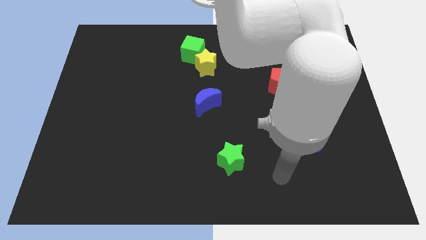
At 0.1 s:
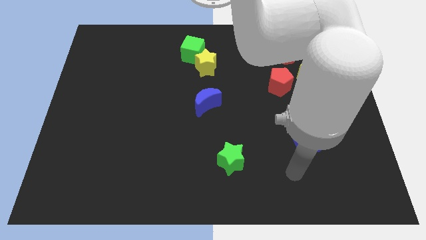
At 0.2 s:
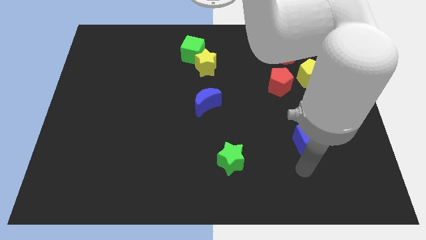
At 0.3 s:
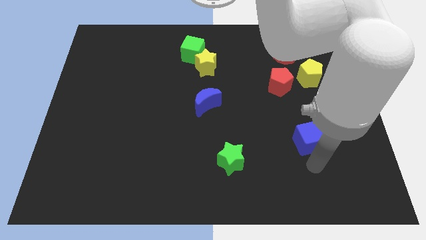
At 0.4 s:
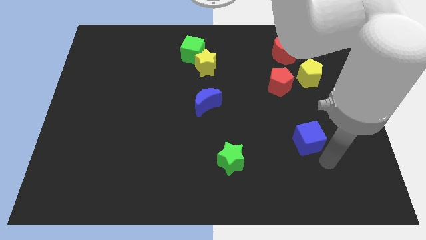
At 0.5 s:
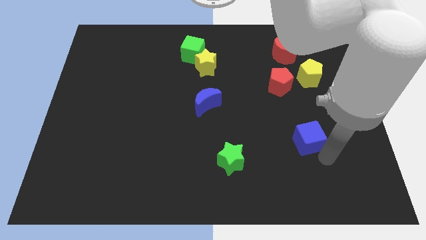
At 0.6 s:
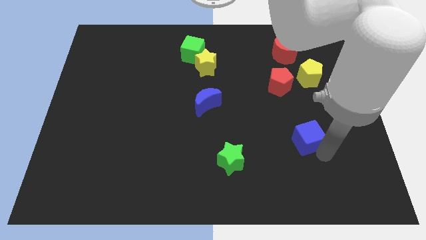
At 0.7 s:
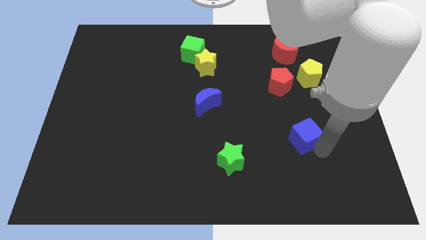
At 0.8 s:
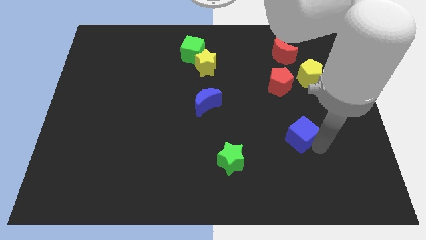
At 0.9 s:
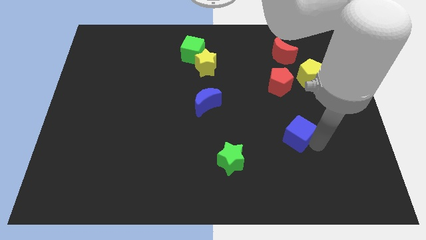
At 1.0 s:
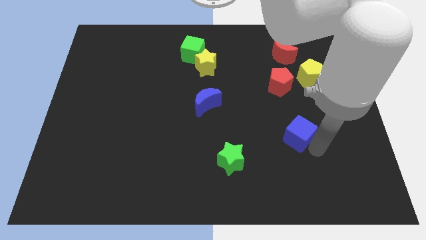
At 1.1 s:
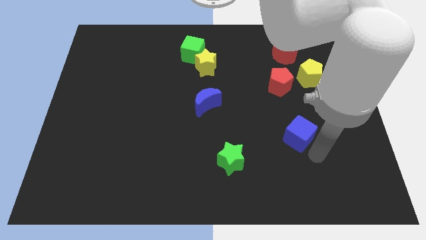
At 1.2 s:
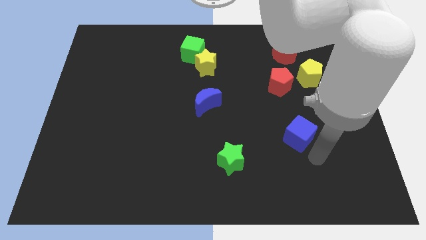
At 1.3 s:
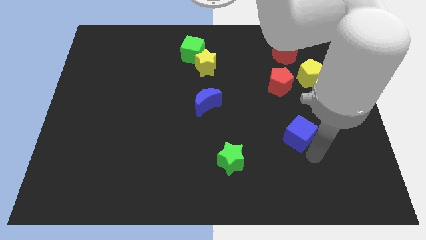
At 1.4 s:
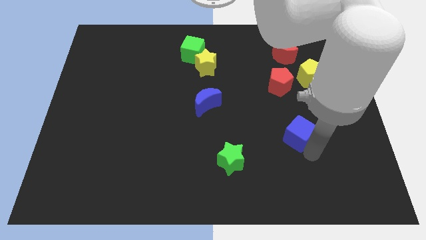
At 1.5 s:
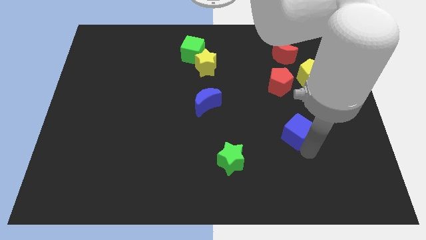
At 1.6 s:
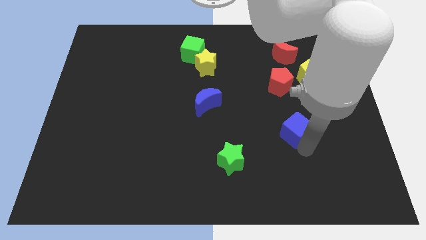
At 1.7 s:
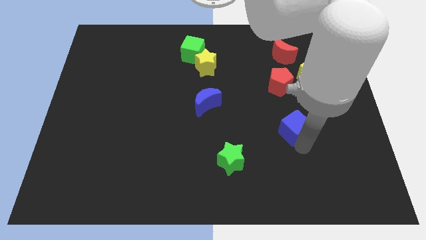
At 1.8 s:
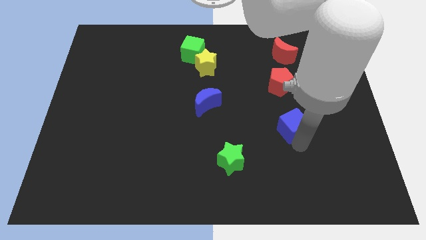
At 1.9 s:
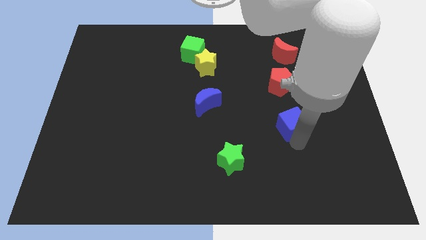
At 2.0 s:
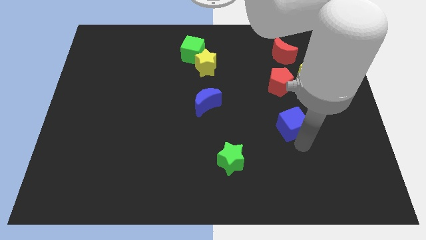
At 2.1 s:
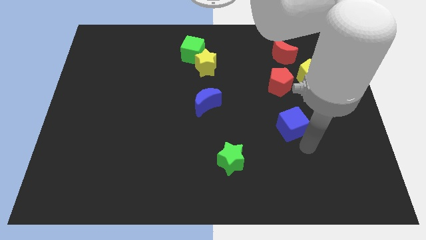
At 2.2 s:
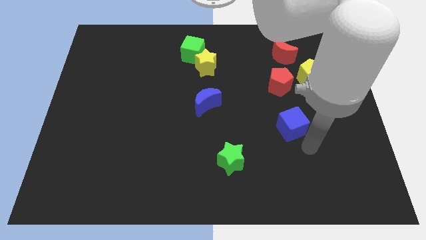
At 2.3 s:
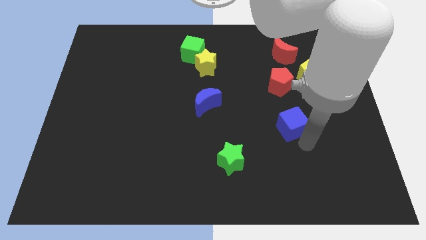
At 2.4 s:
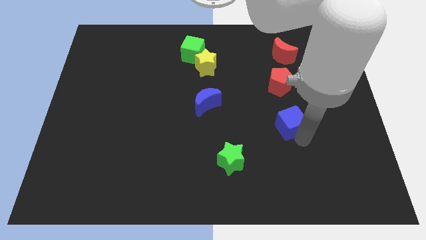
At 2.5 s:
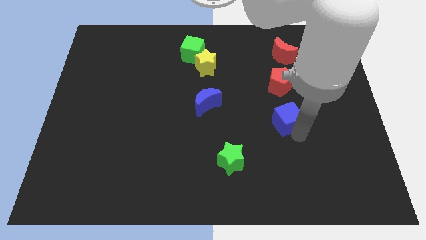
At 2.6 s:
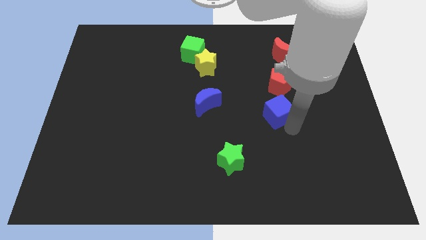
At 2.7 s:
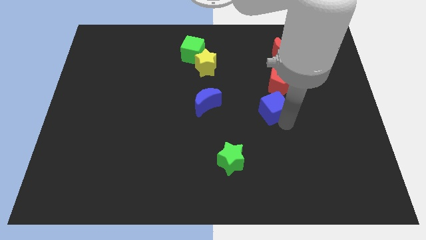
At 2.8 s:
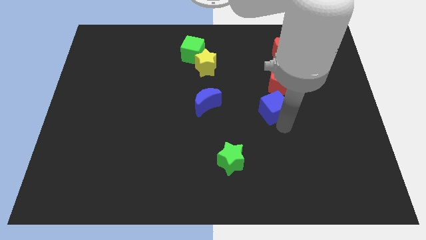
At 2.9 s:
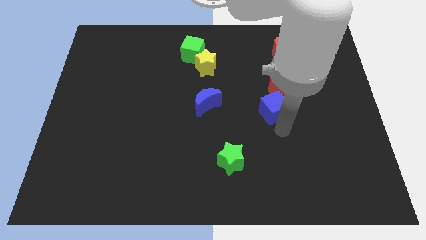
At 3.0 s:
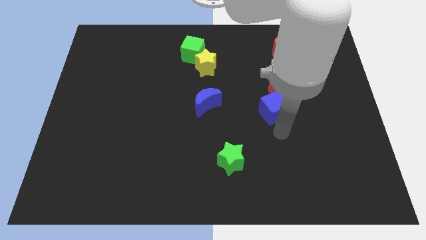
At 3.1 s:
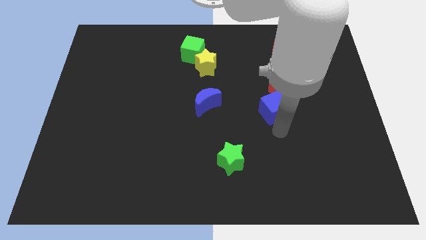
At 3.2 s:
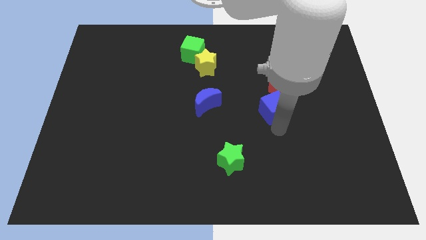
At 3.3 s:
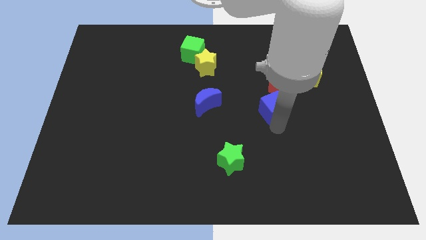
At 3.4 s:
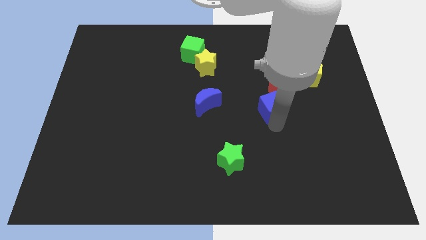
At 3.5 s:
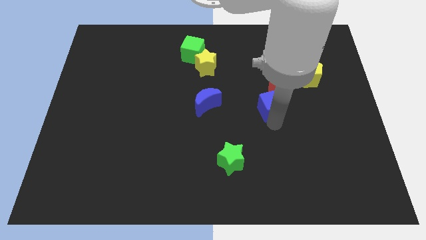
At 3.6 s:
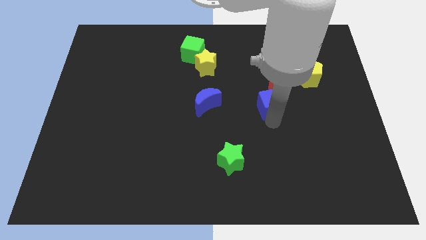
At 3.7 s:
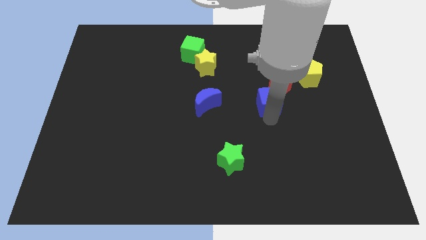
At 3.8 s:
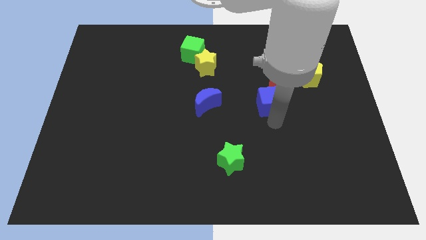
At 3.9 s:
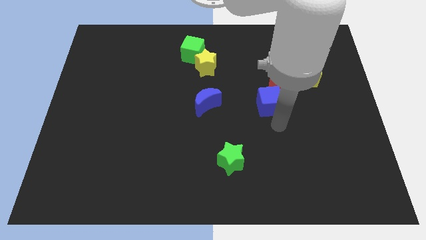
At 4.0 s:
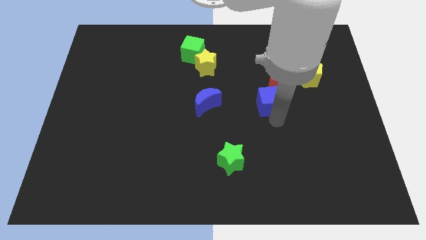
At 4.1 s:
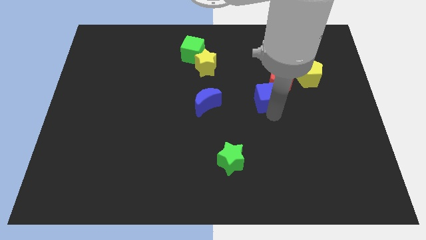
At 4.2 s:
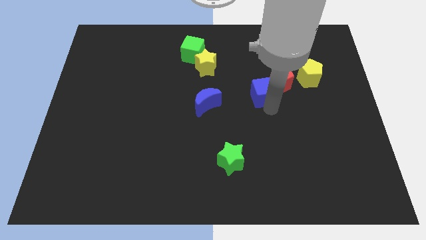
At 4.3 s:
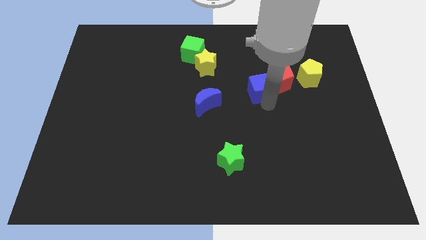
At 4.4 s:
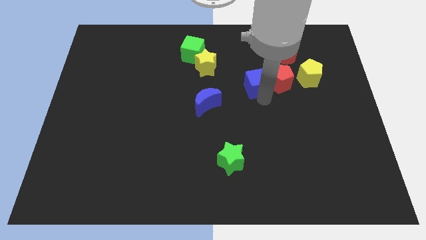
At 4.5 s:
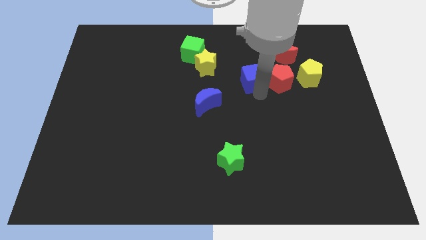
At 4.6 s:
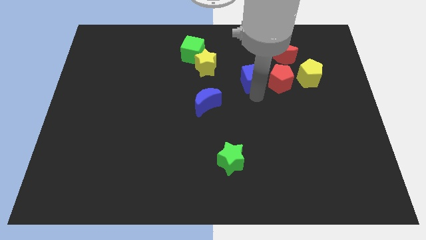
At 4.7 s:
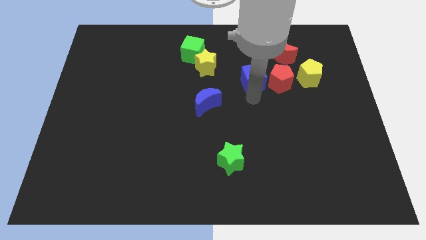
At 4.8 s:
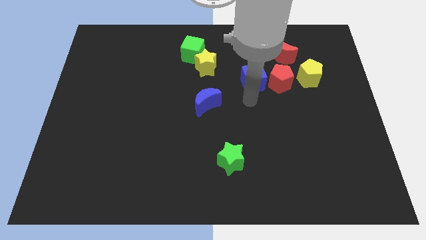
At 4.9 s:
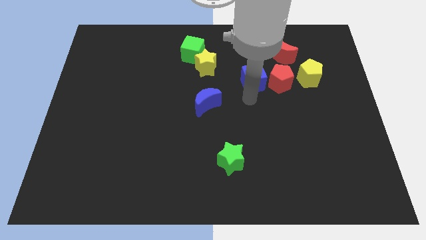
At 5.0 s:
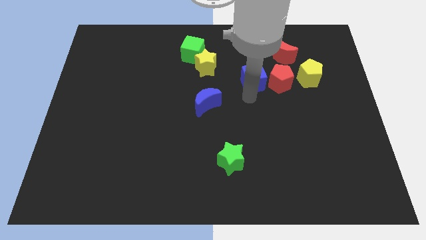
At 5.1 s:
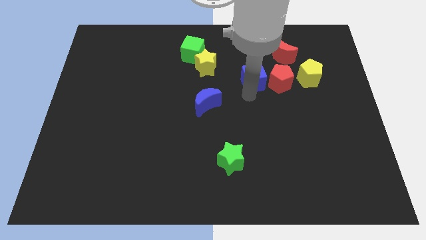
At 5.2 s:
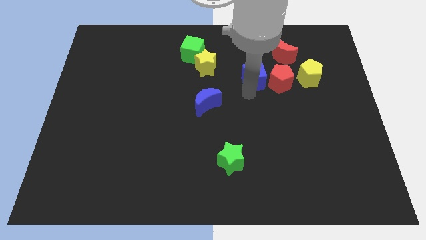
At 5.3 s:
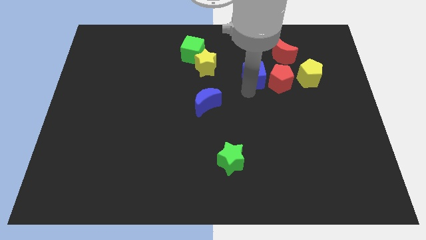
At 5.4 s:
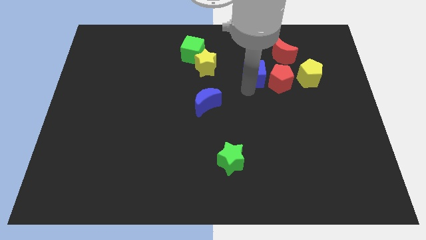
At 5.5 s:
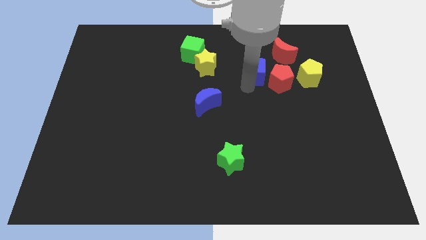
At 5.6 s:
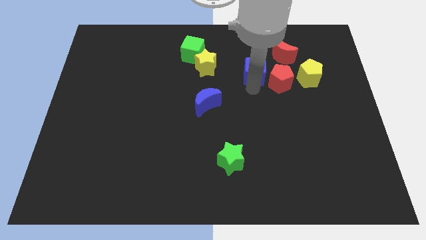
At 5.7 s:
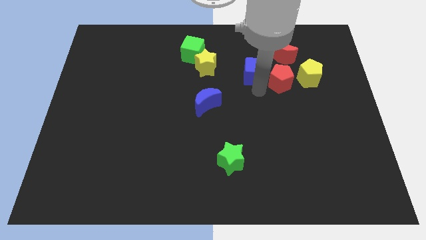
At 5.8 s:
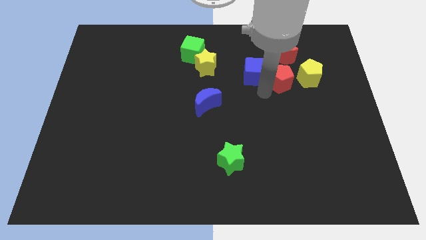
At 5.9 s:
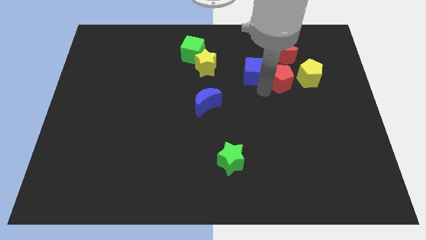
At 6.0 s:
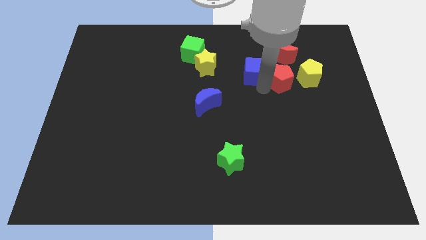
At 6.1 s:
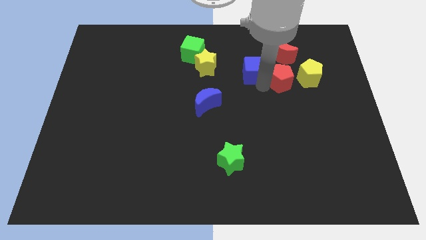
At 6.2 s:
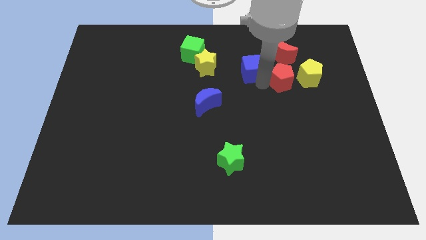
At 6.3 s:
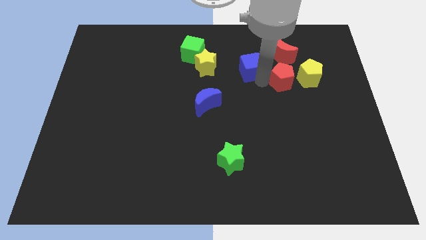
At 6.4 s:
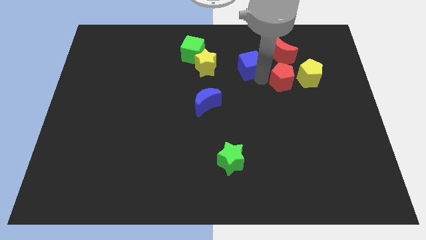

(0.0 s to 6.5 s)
push the blue cube to the left side of the red moon

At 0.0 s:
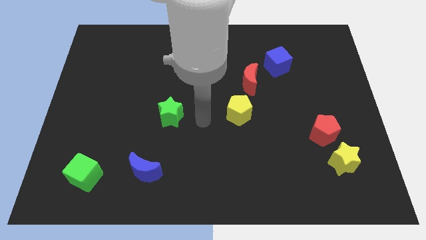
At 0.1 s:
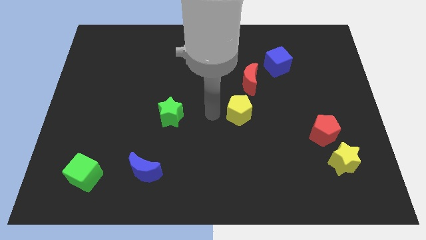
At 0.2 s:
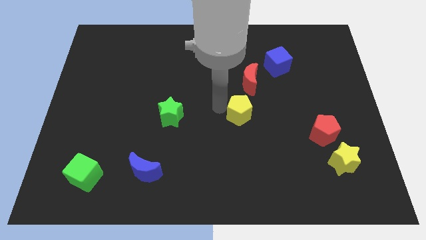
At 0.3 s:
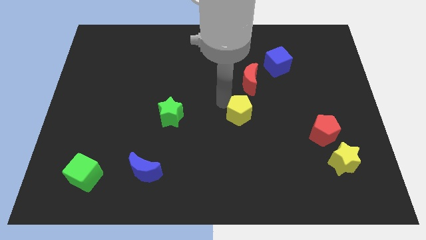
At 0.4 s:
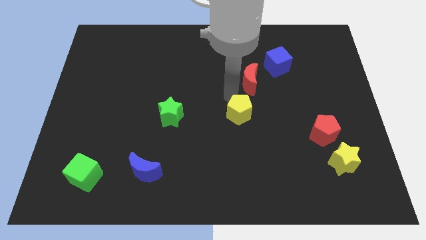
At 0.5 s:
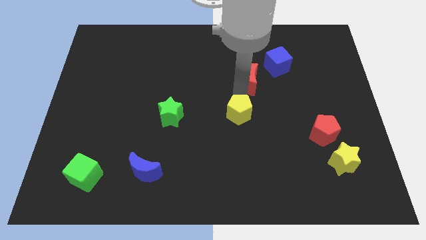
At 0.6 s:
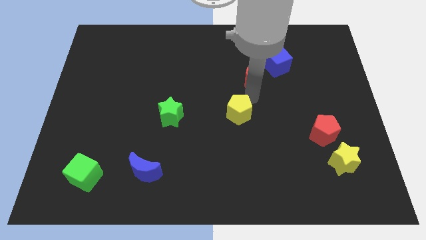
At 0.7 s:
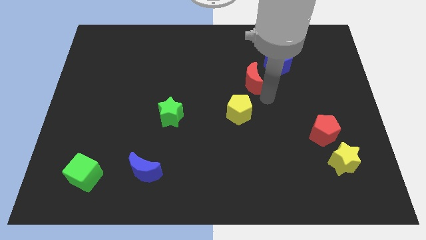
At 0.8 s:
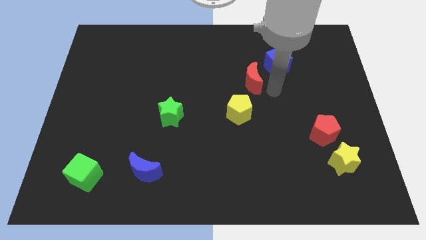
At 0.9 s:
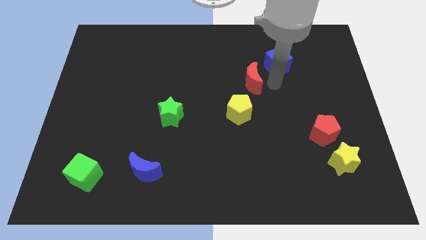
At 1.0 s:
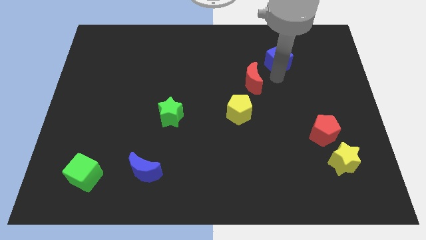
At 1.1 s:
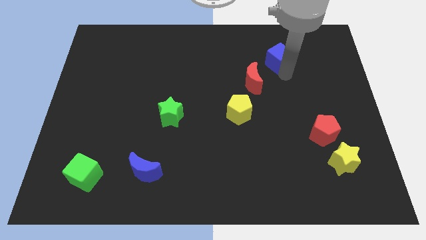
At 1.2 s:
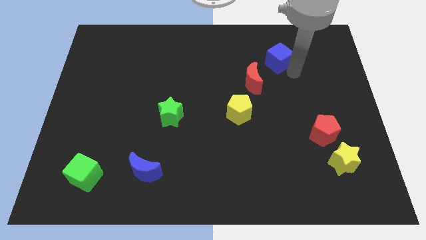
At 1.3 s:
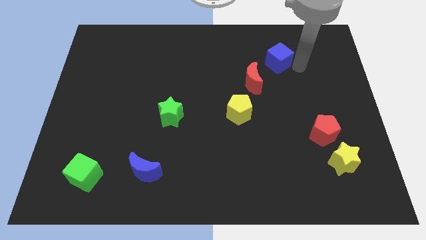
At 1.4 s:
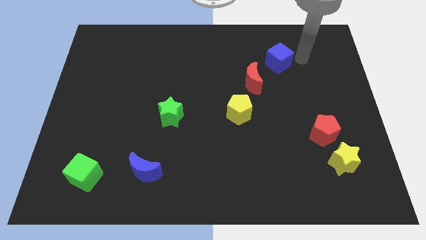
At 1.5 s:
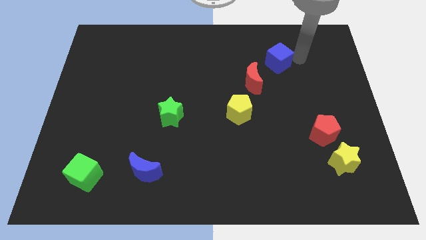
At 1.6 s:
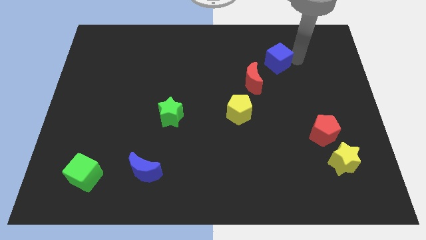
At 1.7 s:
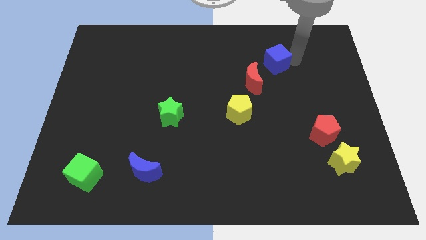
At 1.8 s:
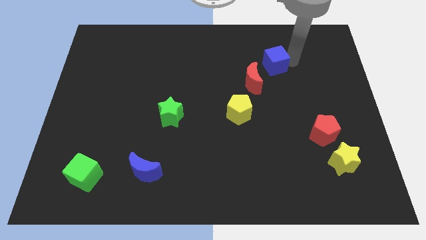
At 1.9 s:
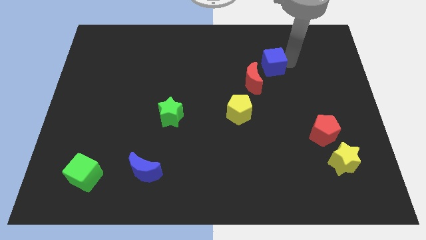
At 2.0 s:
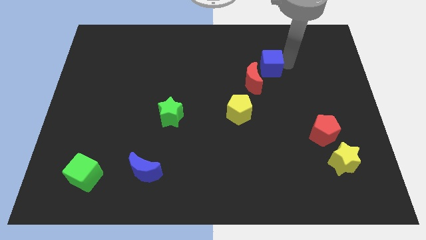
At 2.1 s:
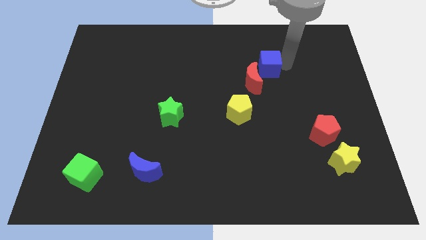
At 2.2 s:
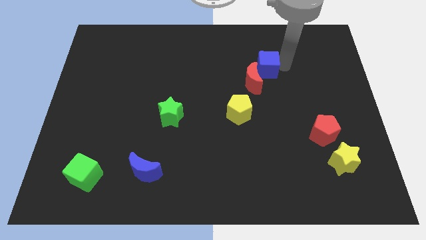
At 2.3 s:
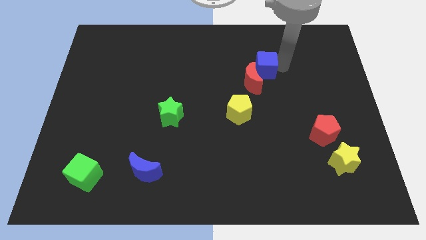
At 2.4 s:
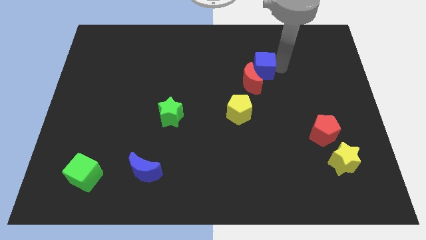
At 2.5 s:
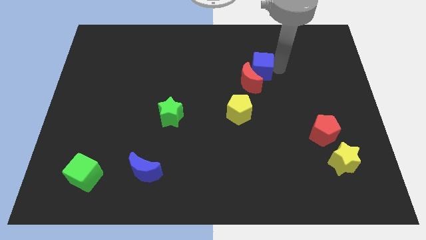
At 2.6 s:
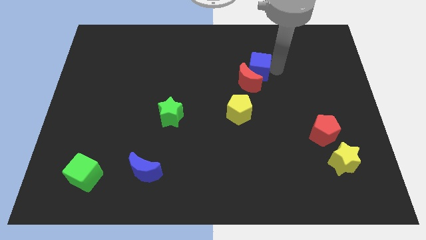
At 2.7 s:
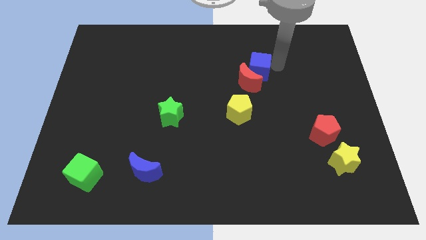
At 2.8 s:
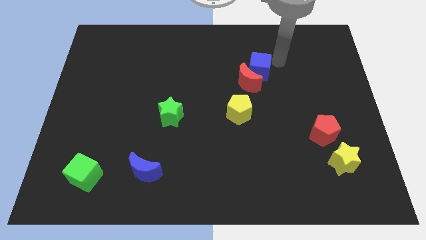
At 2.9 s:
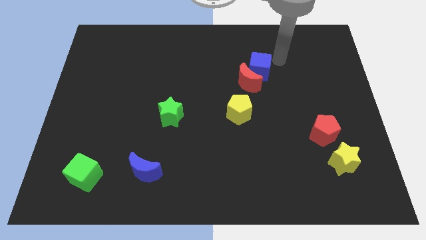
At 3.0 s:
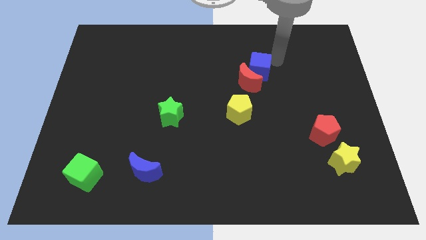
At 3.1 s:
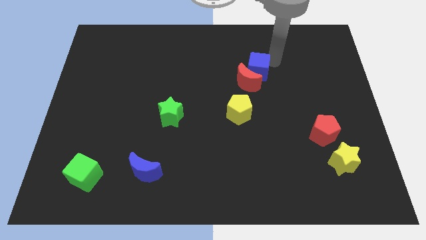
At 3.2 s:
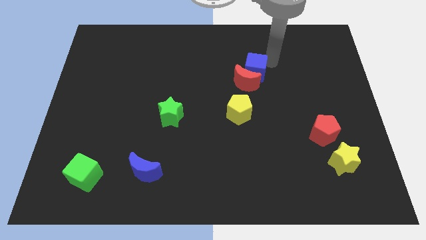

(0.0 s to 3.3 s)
put the blue cube to the top of the yellow pentagon
